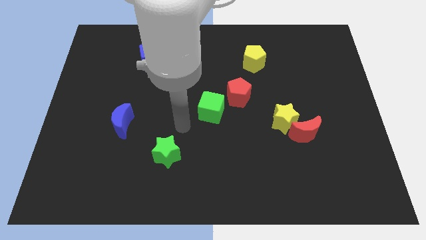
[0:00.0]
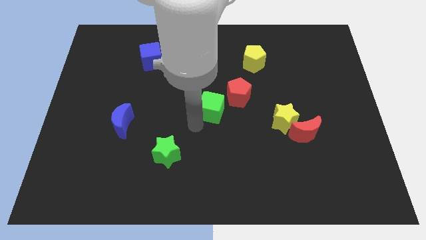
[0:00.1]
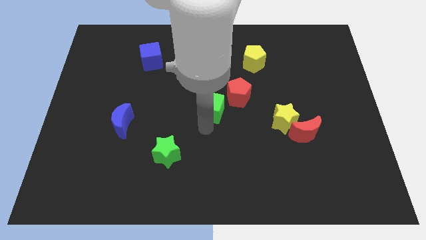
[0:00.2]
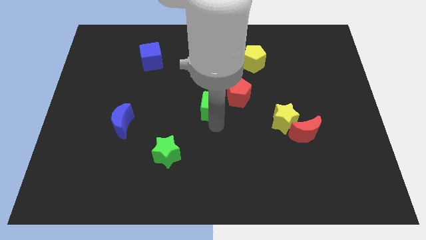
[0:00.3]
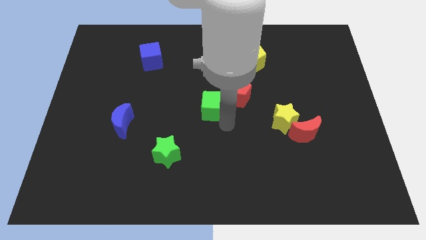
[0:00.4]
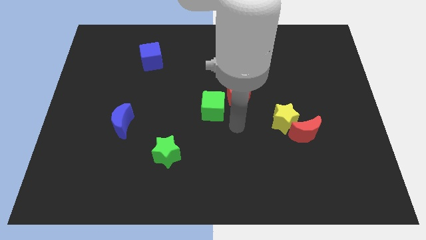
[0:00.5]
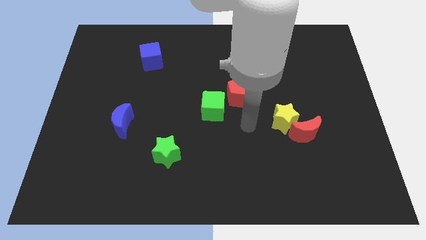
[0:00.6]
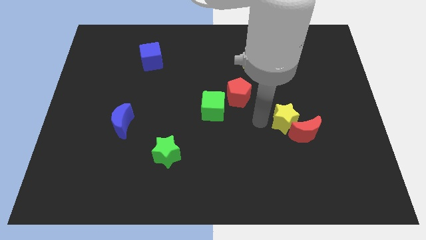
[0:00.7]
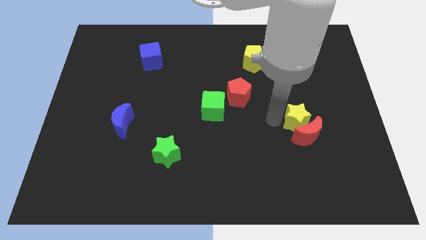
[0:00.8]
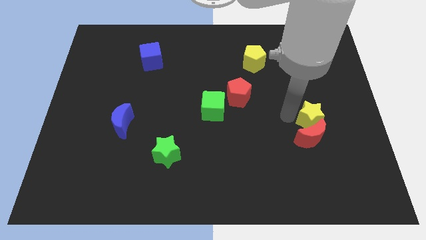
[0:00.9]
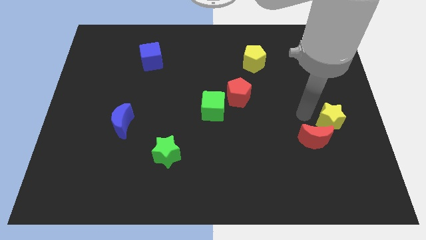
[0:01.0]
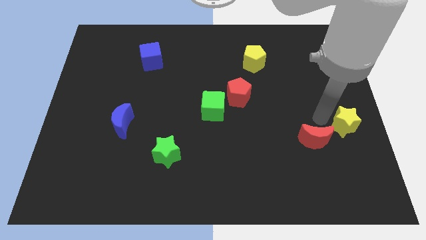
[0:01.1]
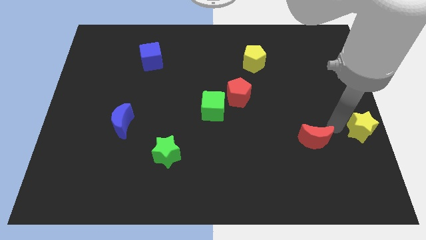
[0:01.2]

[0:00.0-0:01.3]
pull the red moon apart from the yellow star

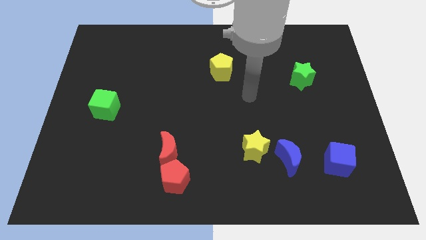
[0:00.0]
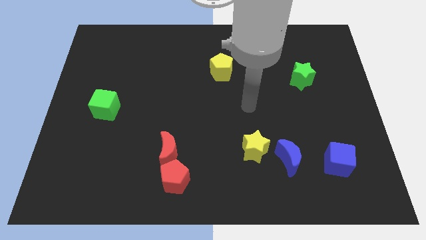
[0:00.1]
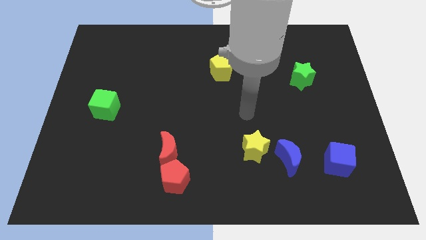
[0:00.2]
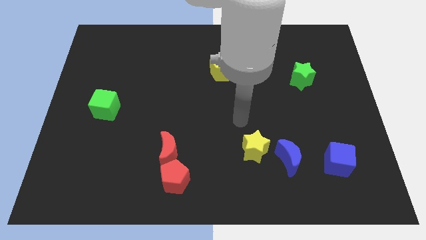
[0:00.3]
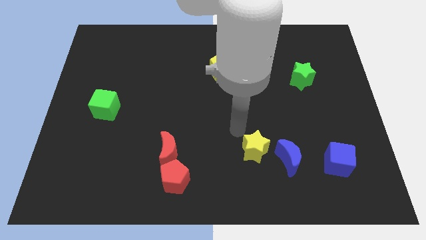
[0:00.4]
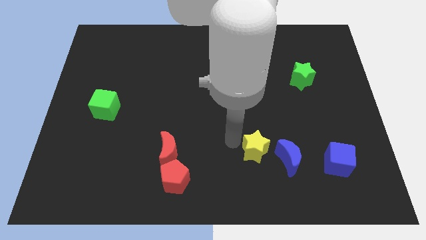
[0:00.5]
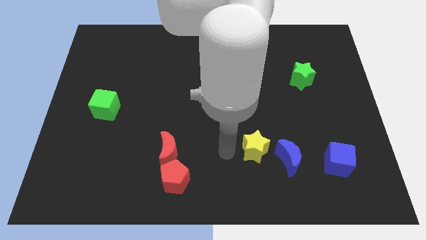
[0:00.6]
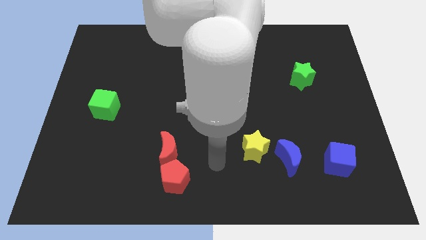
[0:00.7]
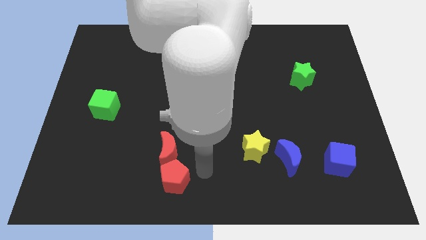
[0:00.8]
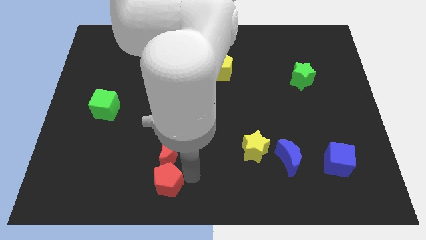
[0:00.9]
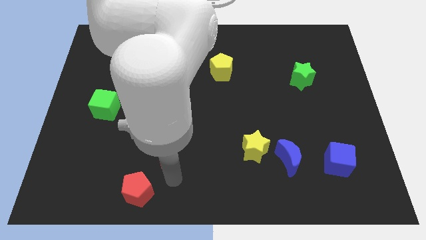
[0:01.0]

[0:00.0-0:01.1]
move the red moon away from the red pentagon

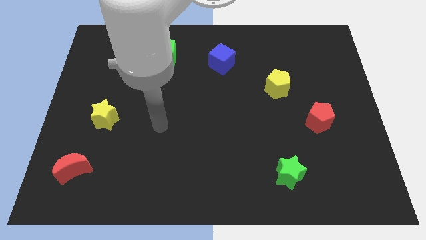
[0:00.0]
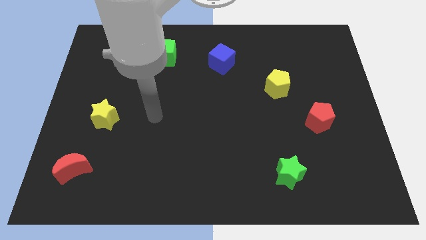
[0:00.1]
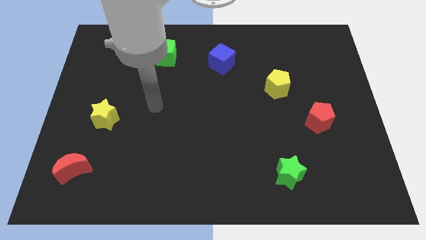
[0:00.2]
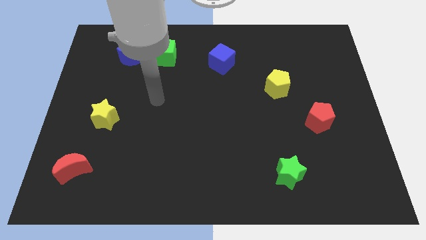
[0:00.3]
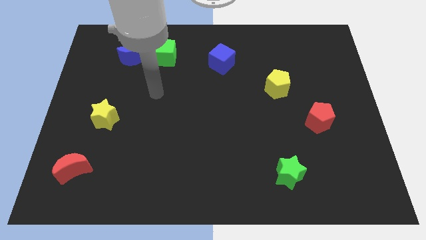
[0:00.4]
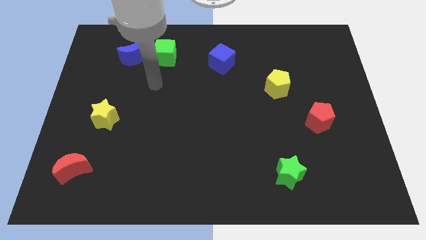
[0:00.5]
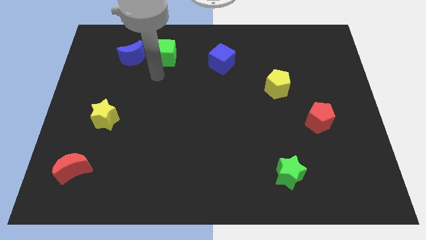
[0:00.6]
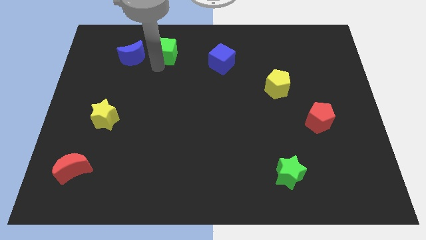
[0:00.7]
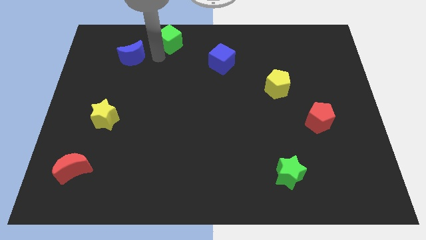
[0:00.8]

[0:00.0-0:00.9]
pull the blue moon apart from the green cube

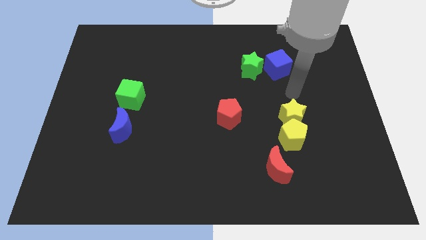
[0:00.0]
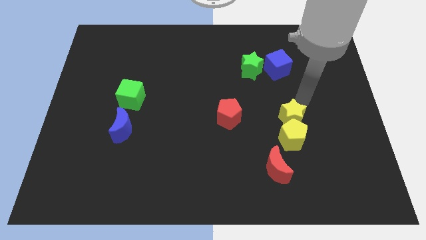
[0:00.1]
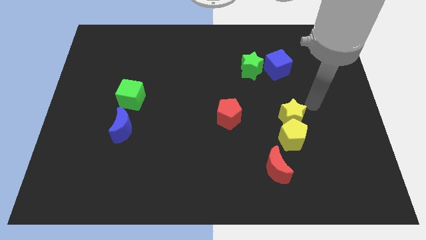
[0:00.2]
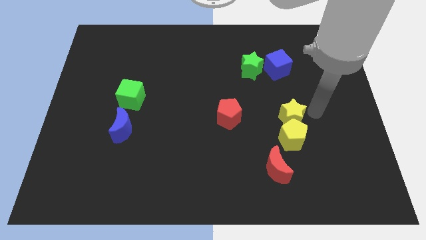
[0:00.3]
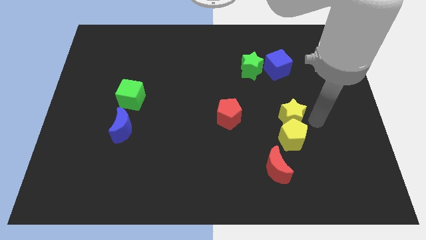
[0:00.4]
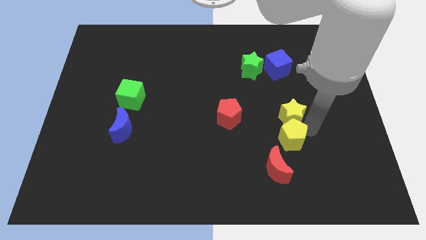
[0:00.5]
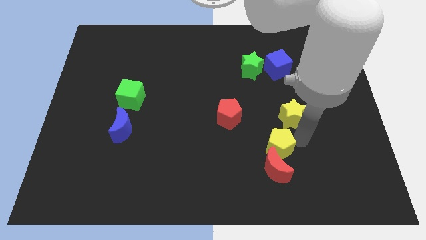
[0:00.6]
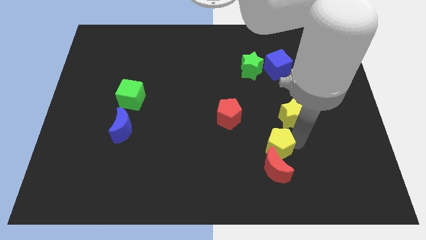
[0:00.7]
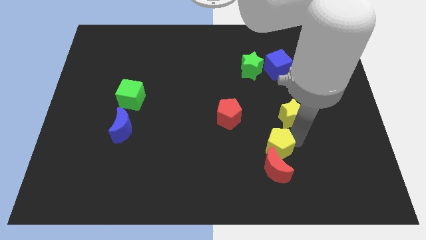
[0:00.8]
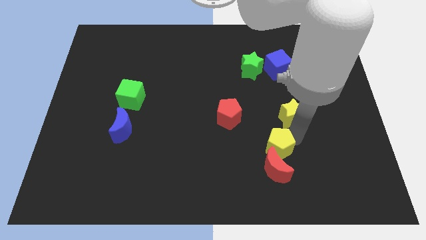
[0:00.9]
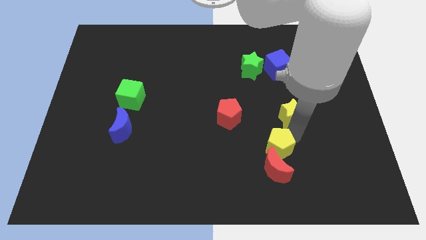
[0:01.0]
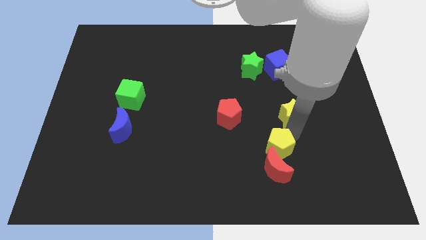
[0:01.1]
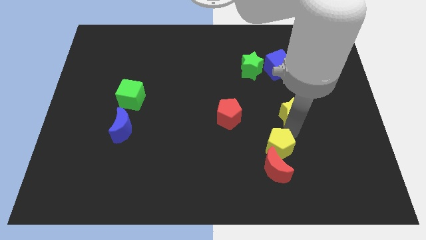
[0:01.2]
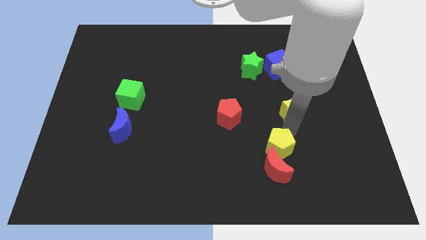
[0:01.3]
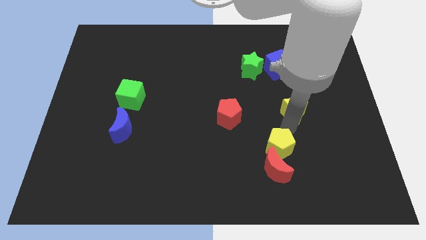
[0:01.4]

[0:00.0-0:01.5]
pull the yellow star apart from the yellow pentagon

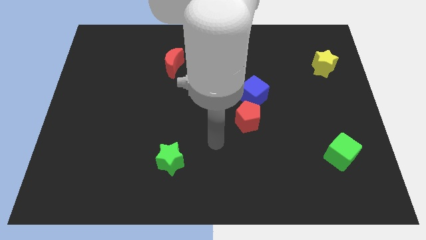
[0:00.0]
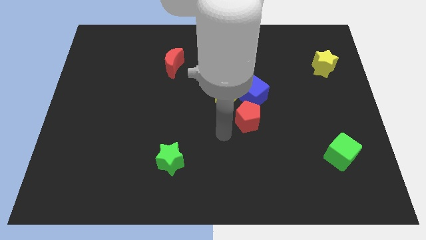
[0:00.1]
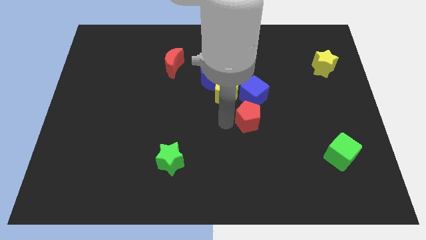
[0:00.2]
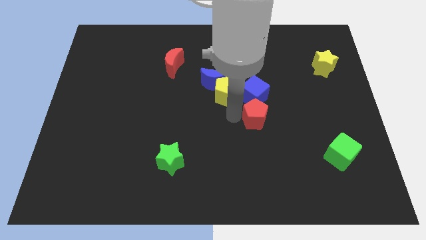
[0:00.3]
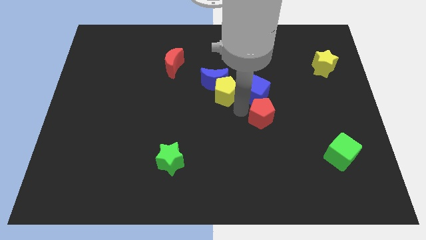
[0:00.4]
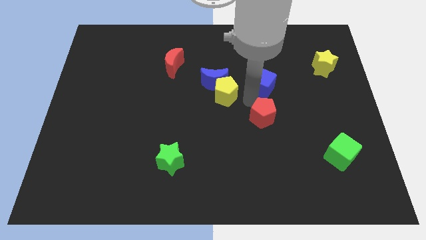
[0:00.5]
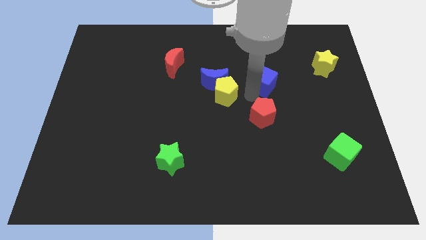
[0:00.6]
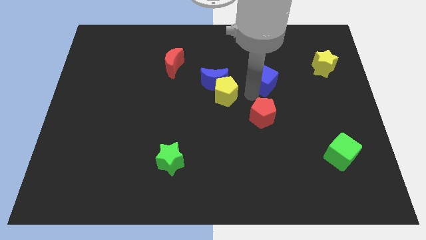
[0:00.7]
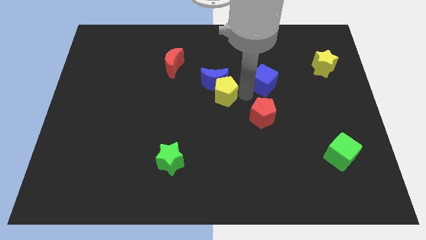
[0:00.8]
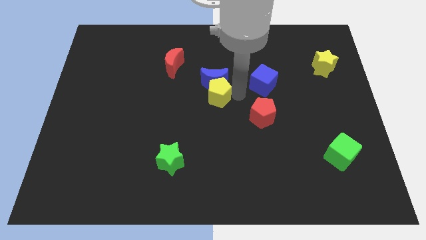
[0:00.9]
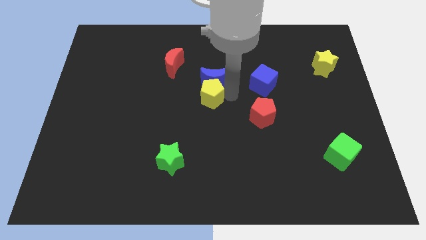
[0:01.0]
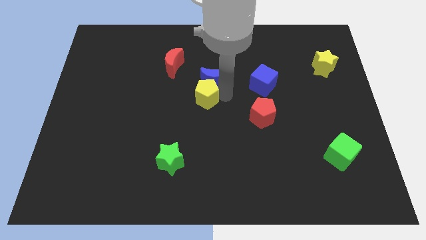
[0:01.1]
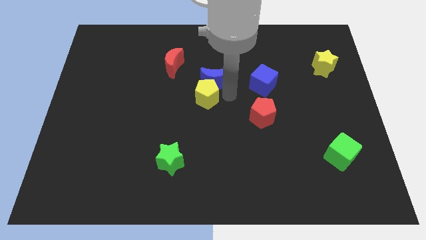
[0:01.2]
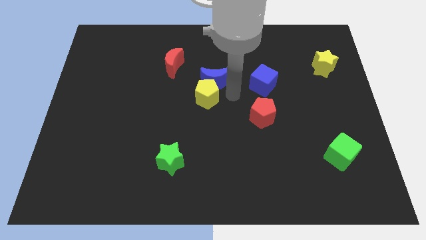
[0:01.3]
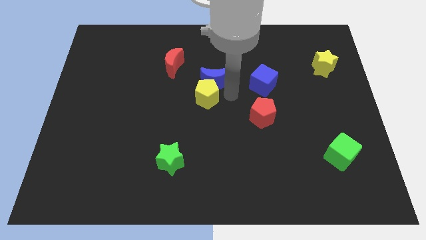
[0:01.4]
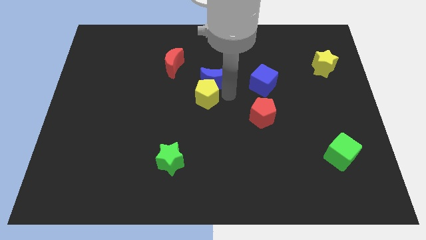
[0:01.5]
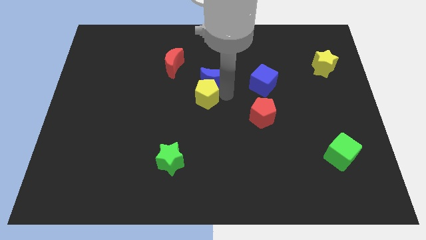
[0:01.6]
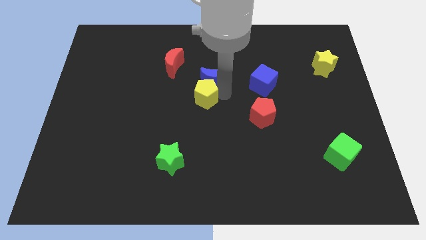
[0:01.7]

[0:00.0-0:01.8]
separate the yellow pentagon from the blue moon, blue cube, and red pentagon

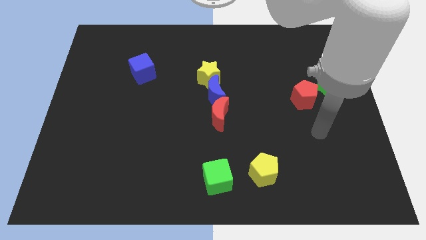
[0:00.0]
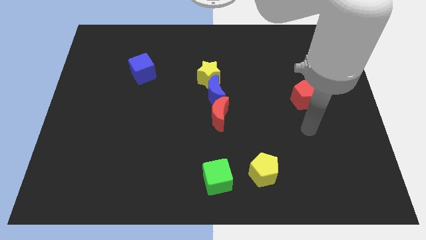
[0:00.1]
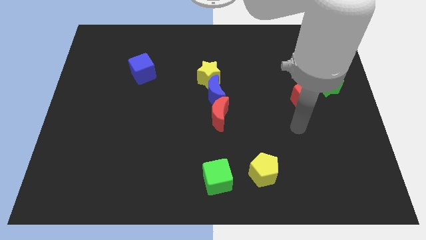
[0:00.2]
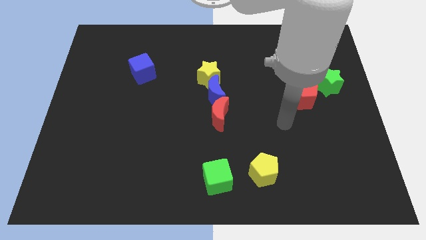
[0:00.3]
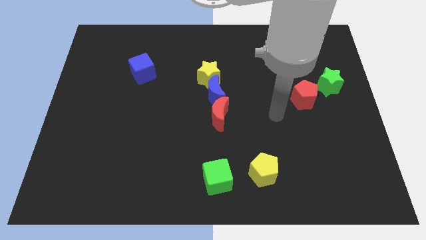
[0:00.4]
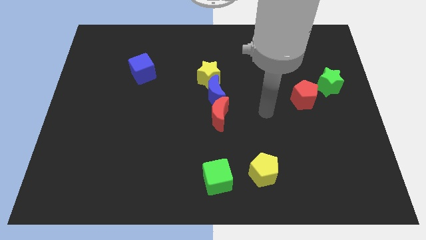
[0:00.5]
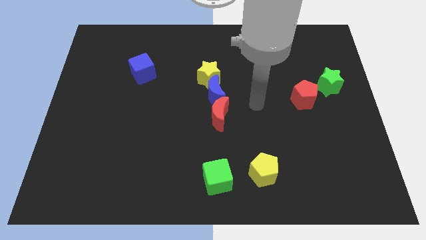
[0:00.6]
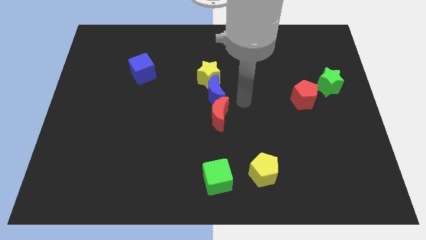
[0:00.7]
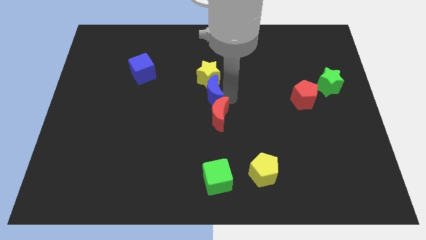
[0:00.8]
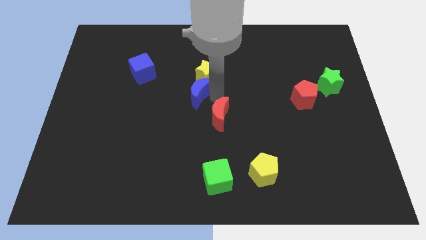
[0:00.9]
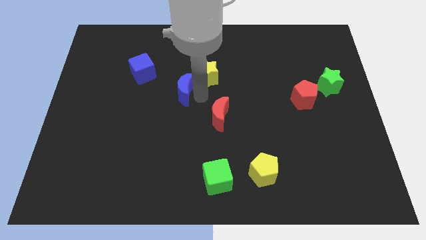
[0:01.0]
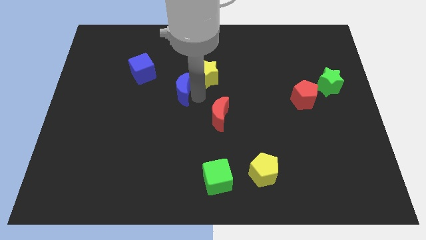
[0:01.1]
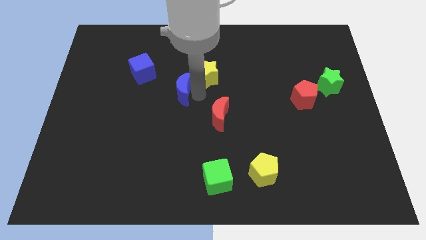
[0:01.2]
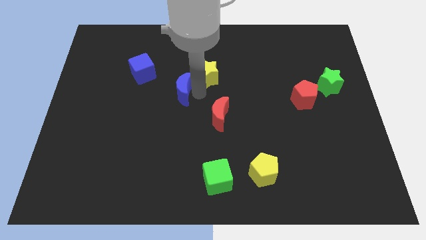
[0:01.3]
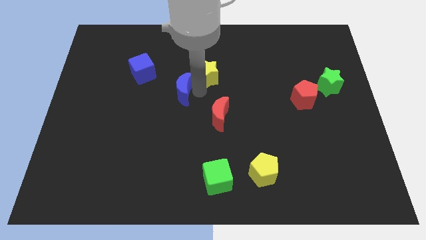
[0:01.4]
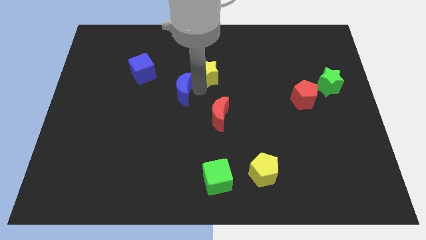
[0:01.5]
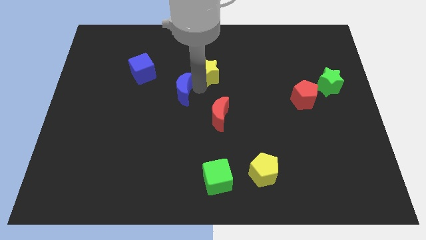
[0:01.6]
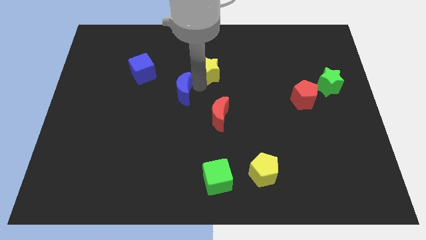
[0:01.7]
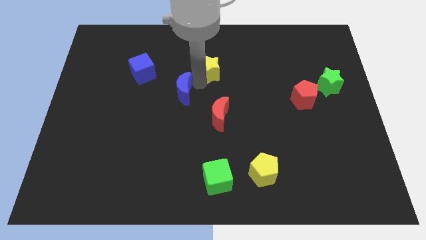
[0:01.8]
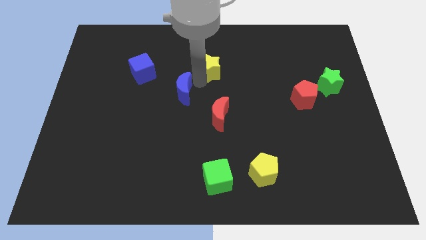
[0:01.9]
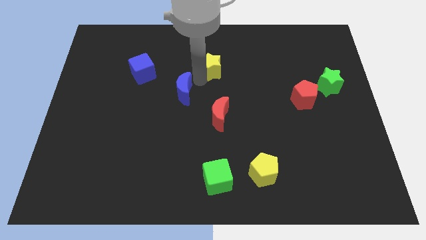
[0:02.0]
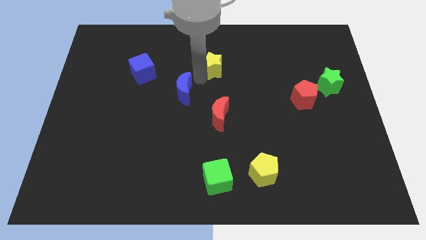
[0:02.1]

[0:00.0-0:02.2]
pull the yellow star apart from the blue moon

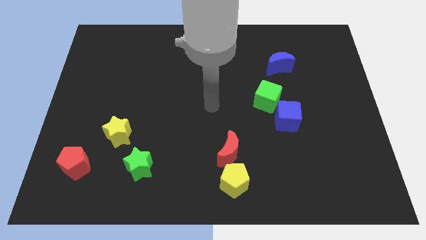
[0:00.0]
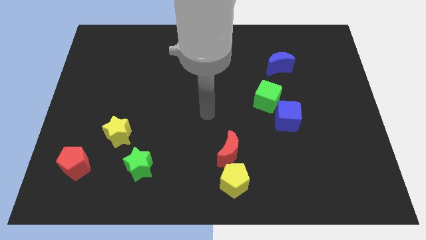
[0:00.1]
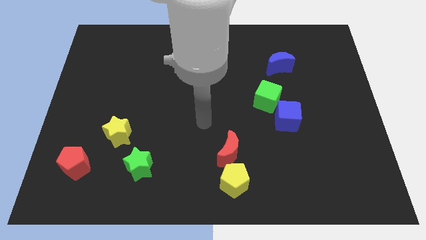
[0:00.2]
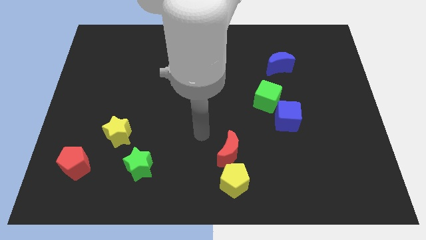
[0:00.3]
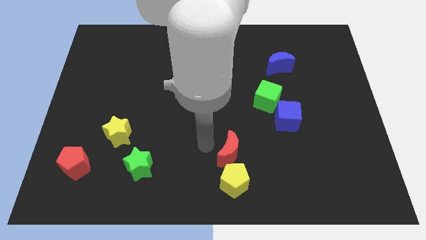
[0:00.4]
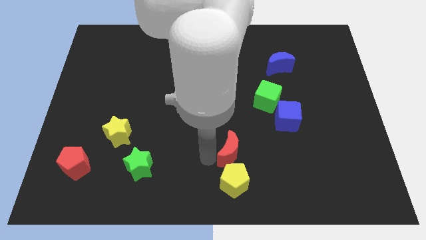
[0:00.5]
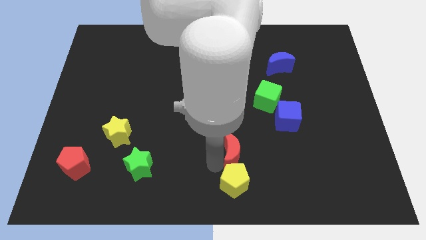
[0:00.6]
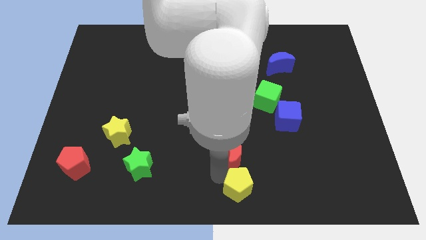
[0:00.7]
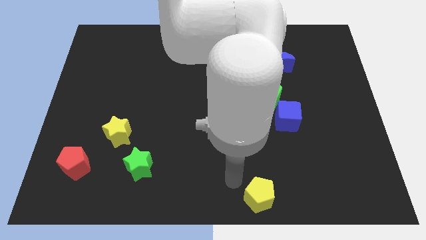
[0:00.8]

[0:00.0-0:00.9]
pull the red moon apart from the yellow pentagon
